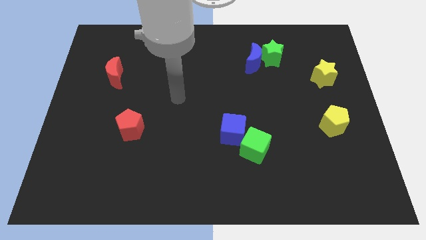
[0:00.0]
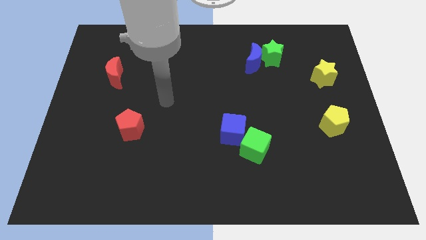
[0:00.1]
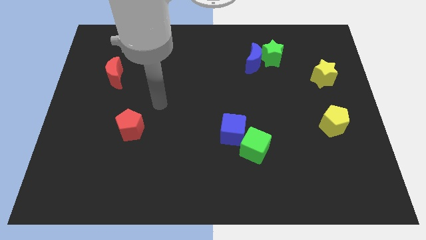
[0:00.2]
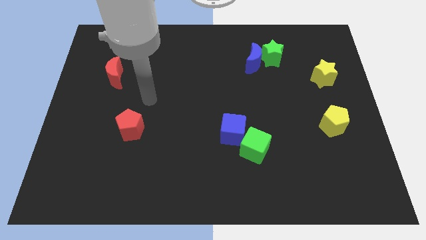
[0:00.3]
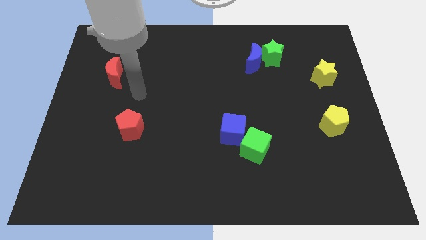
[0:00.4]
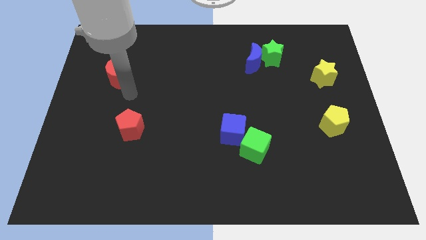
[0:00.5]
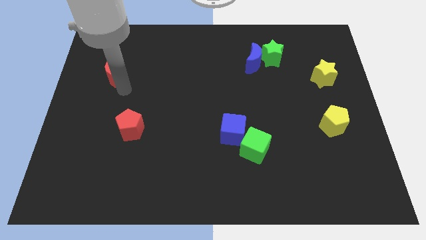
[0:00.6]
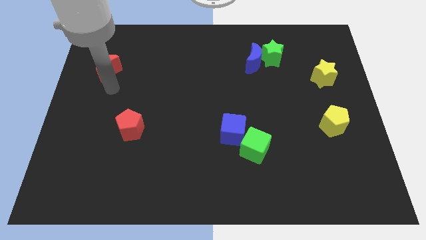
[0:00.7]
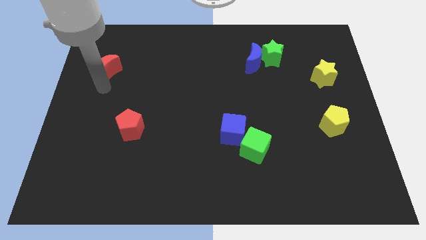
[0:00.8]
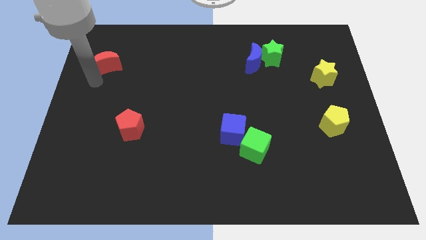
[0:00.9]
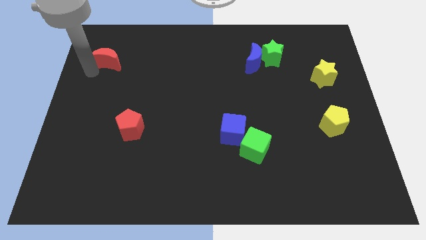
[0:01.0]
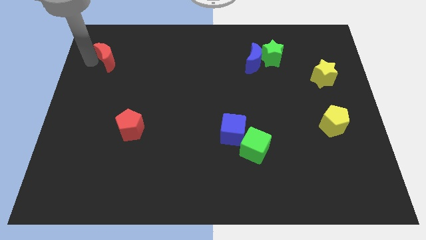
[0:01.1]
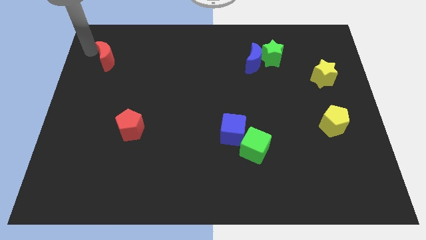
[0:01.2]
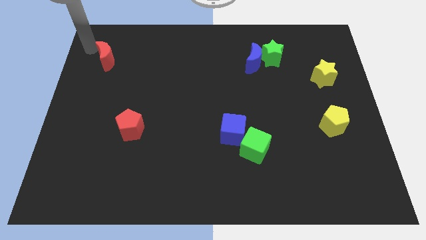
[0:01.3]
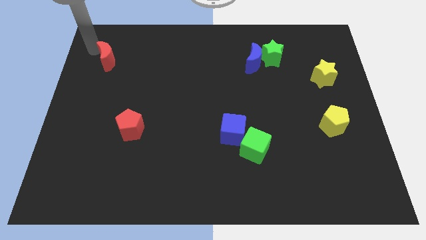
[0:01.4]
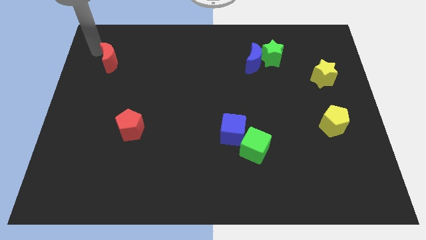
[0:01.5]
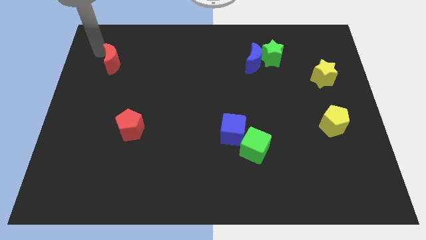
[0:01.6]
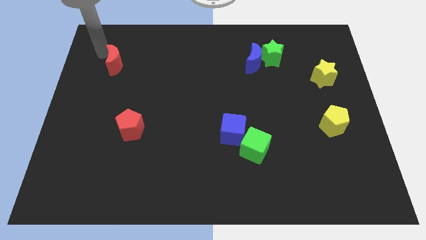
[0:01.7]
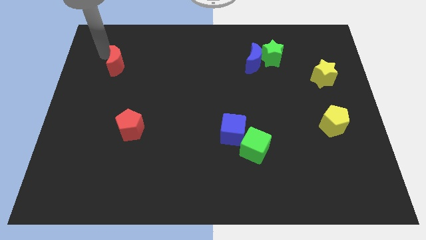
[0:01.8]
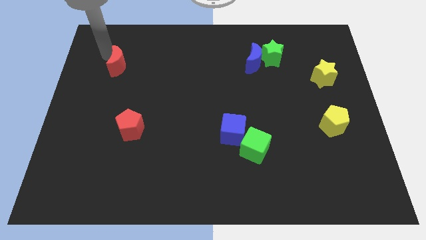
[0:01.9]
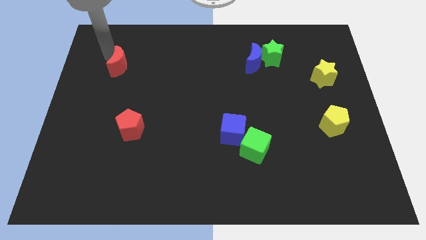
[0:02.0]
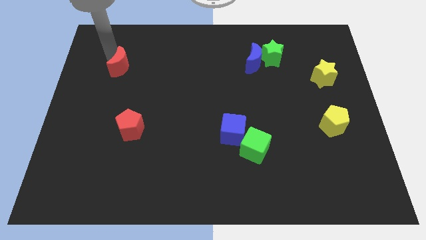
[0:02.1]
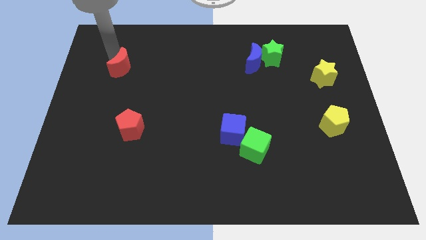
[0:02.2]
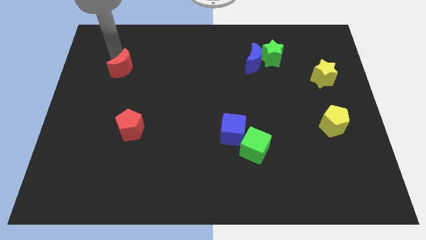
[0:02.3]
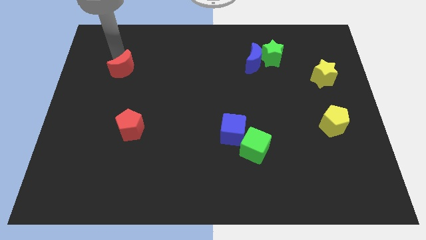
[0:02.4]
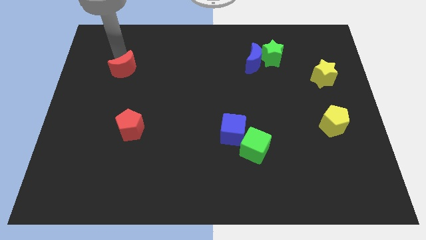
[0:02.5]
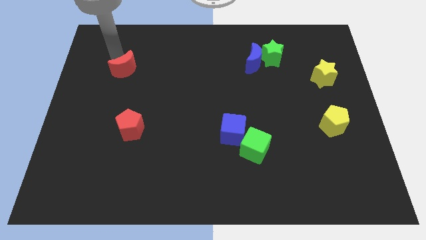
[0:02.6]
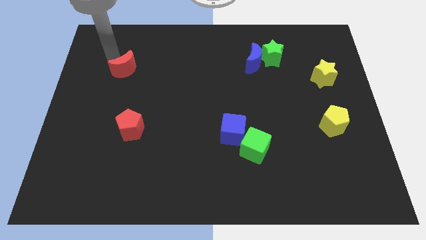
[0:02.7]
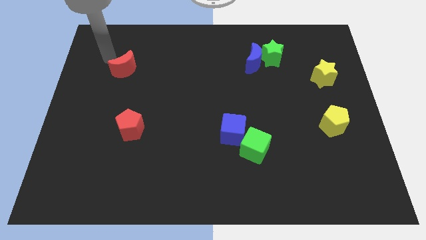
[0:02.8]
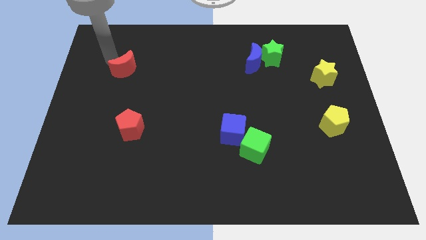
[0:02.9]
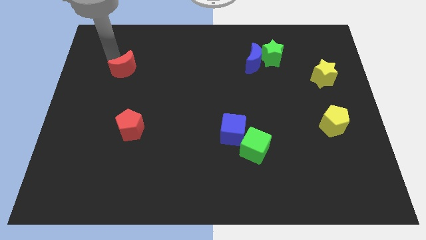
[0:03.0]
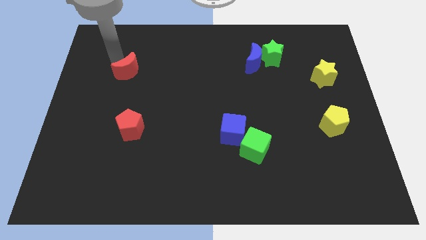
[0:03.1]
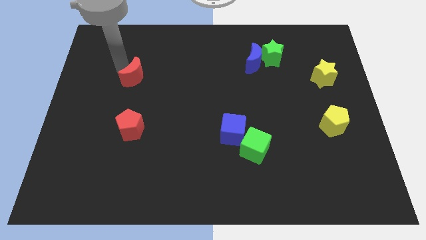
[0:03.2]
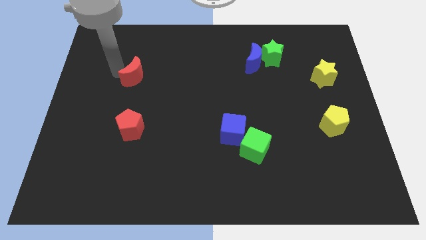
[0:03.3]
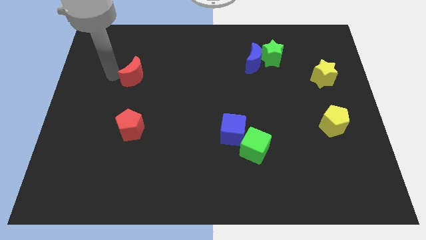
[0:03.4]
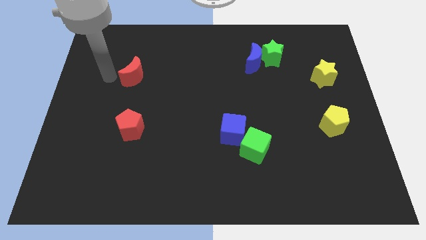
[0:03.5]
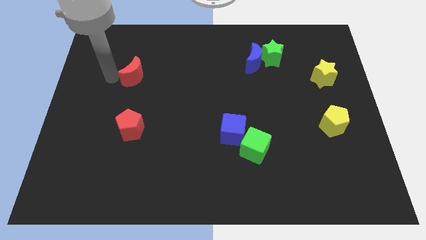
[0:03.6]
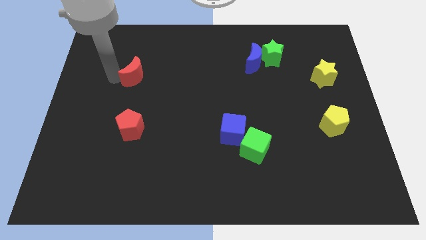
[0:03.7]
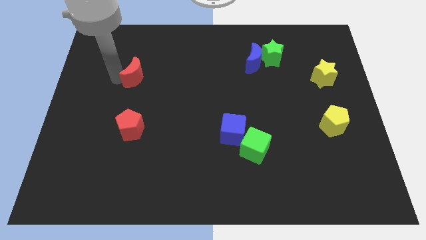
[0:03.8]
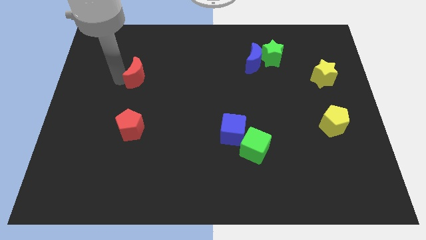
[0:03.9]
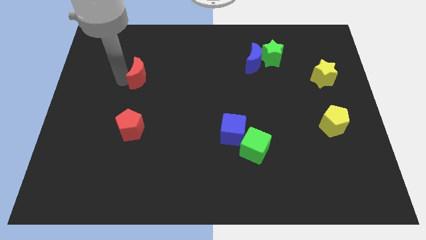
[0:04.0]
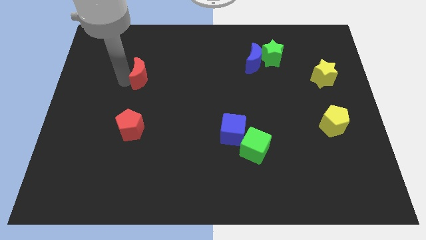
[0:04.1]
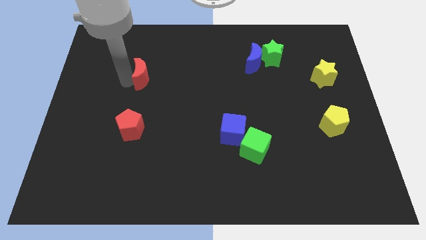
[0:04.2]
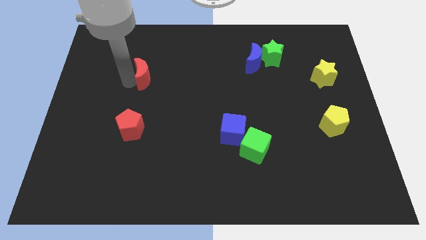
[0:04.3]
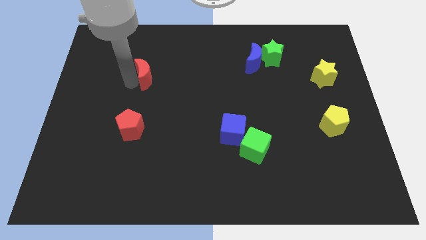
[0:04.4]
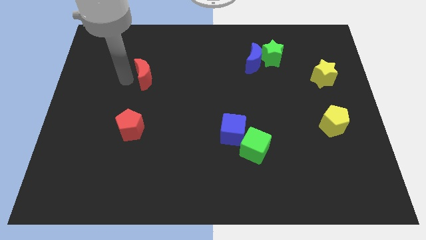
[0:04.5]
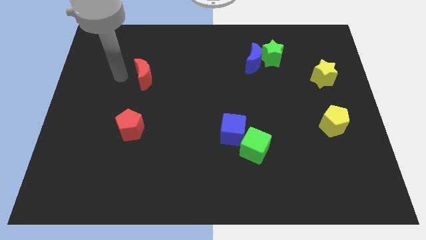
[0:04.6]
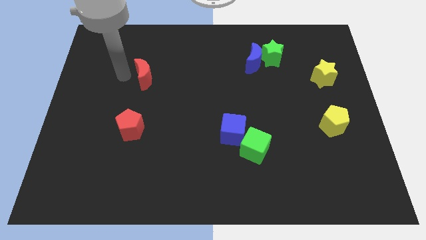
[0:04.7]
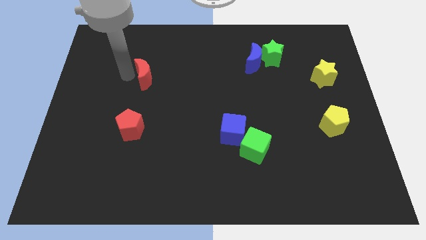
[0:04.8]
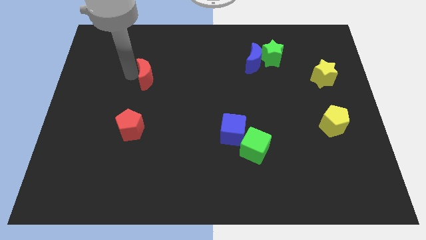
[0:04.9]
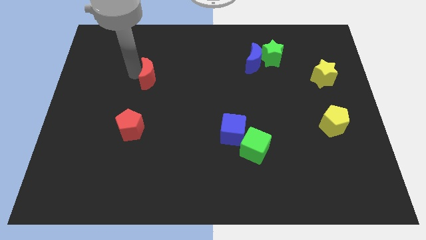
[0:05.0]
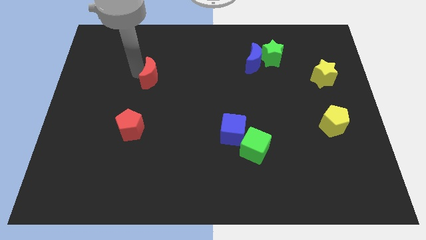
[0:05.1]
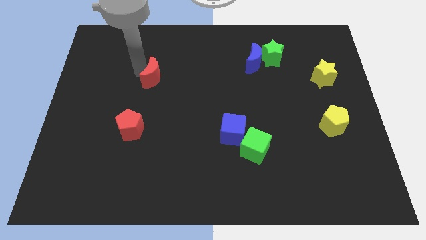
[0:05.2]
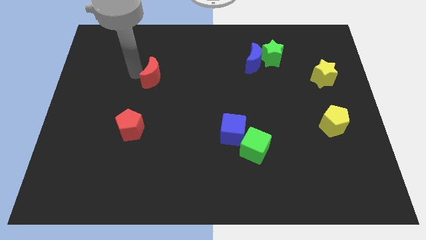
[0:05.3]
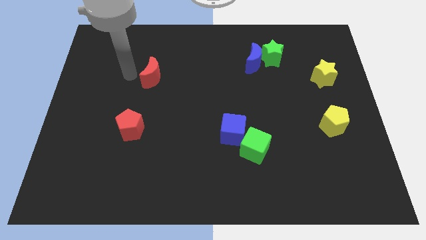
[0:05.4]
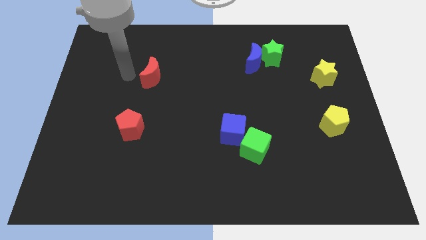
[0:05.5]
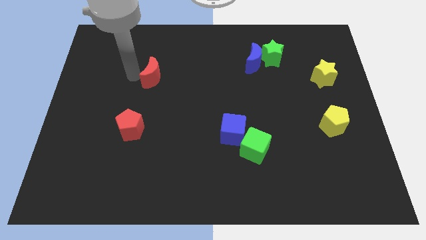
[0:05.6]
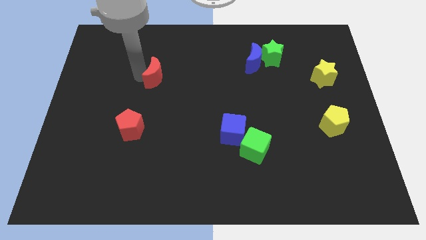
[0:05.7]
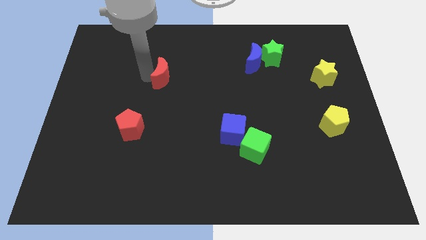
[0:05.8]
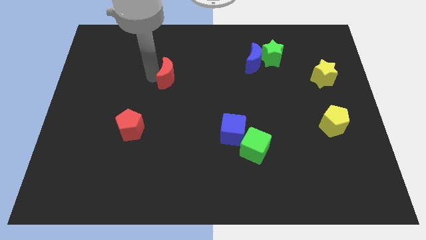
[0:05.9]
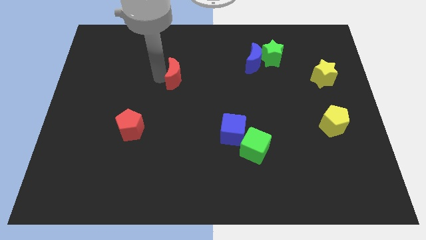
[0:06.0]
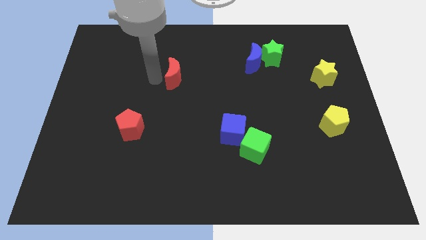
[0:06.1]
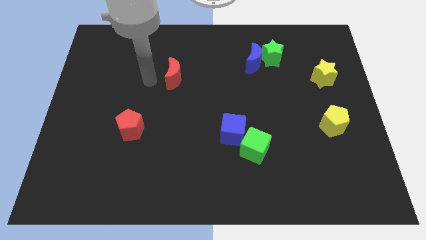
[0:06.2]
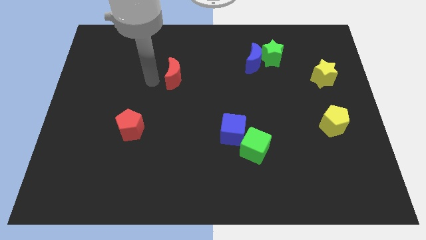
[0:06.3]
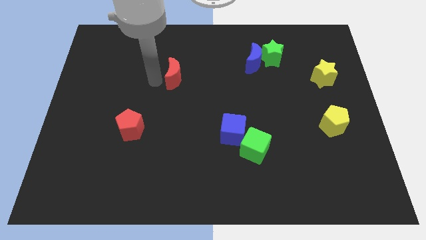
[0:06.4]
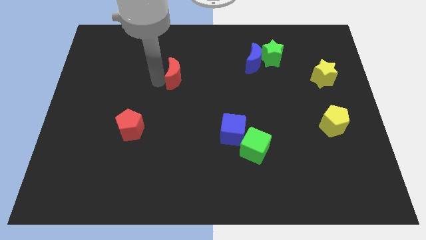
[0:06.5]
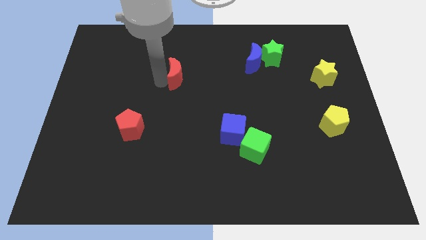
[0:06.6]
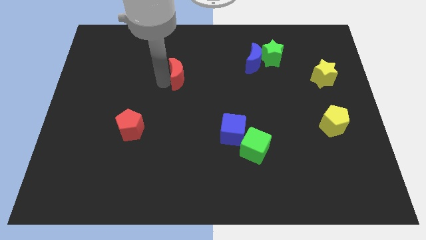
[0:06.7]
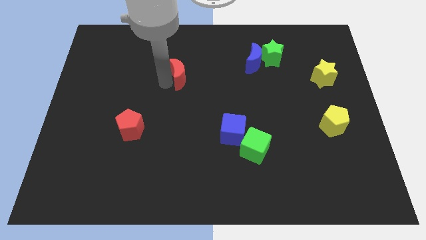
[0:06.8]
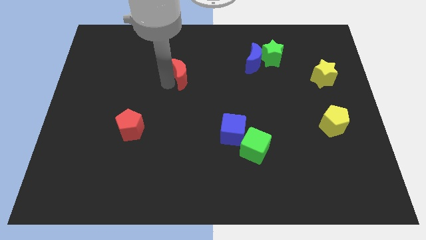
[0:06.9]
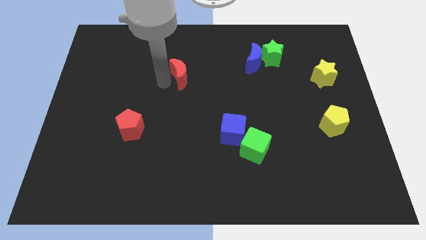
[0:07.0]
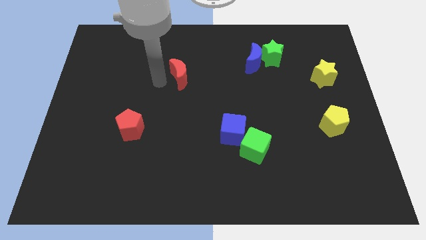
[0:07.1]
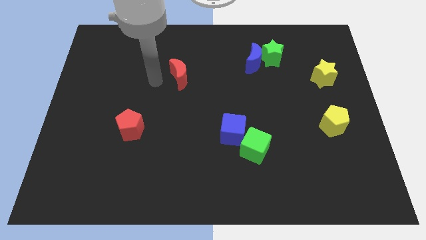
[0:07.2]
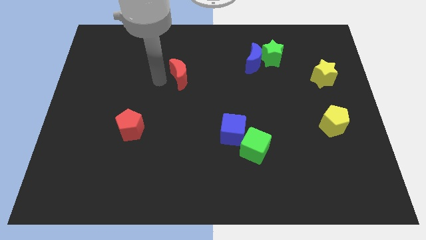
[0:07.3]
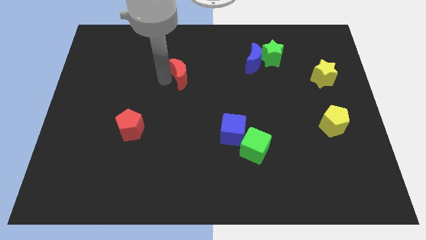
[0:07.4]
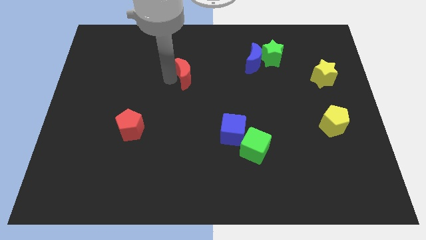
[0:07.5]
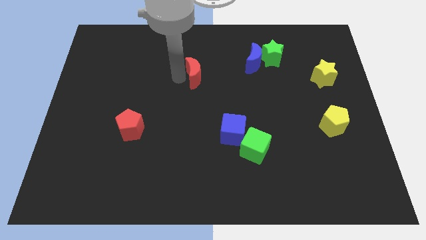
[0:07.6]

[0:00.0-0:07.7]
push the red moon right

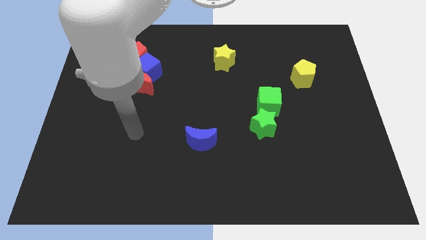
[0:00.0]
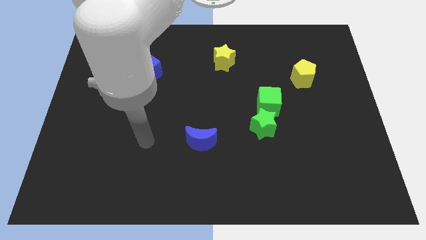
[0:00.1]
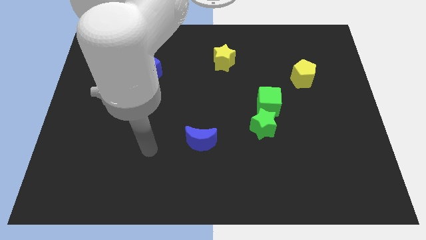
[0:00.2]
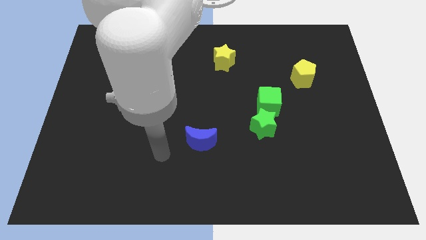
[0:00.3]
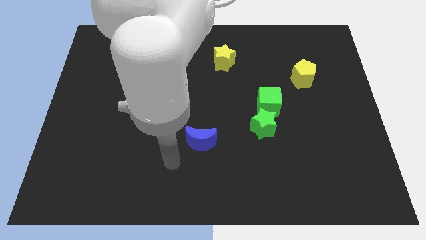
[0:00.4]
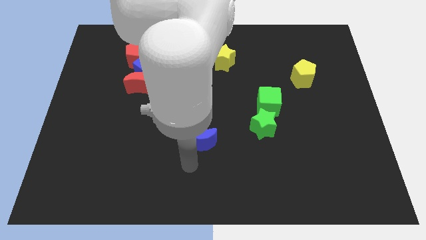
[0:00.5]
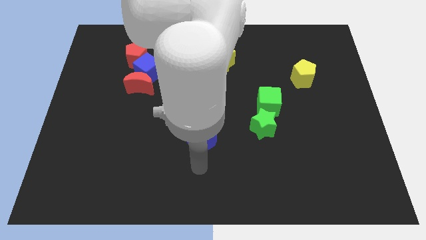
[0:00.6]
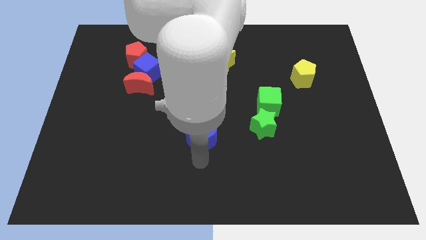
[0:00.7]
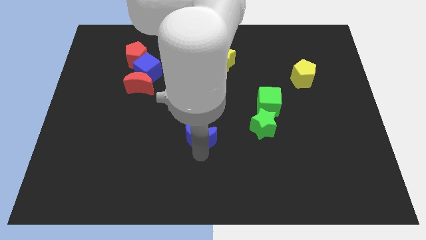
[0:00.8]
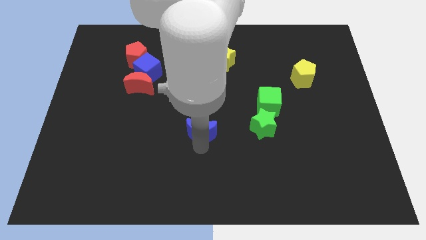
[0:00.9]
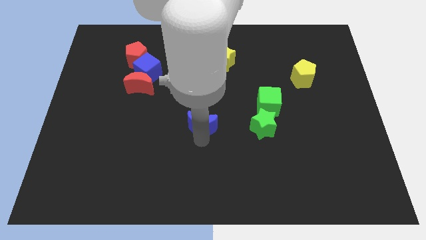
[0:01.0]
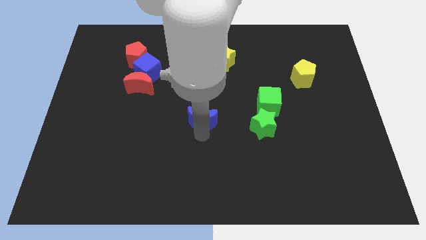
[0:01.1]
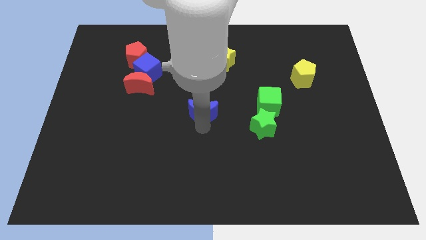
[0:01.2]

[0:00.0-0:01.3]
move the blue moon upwards a little bit
